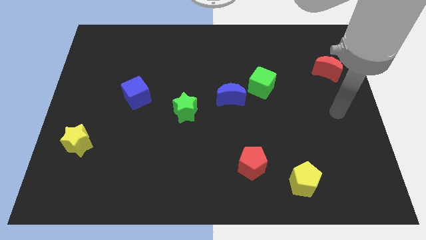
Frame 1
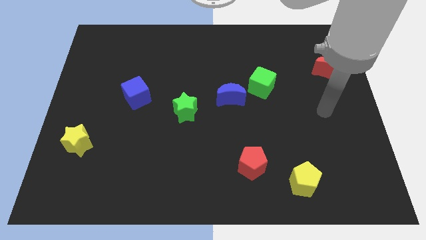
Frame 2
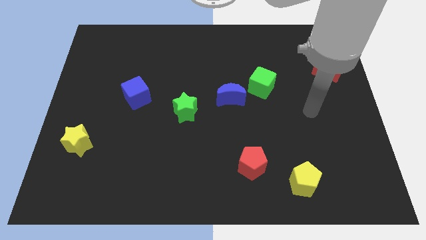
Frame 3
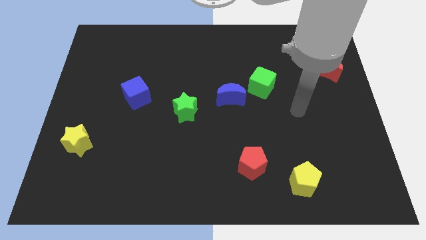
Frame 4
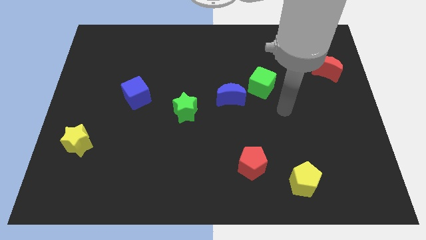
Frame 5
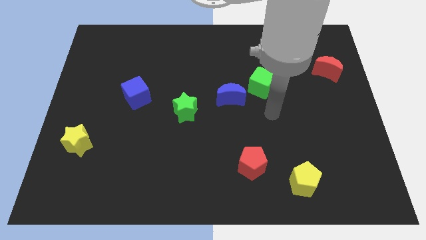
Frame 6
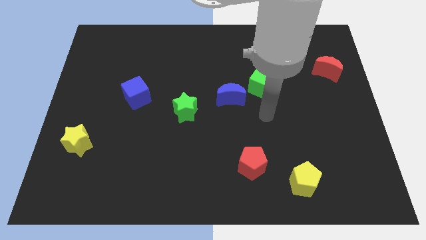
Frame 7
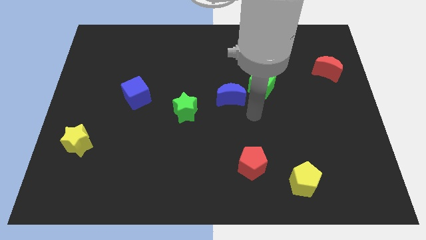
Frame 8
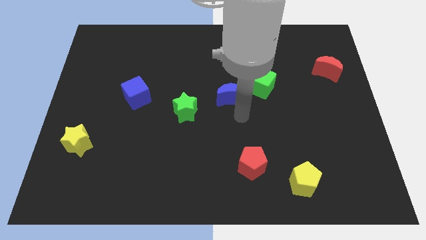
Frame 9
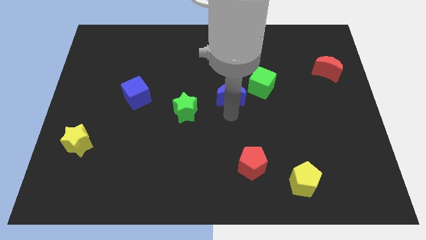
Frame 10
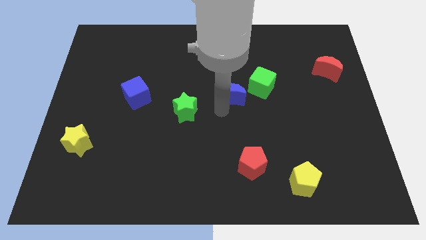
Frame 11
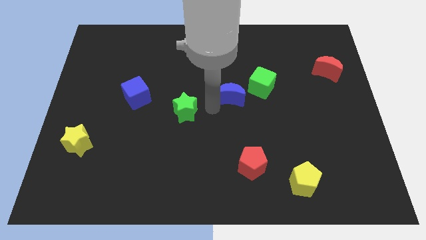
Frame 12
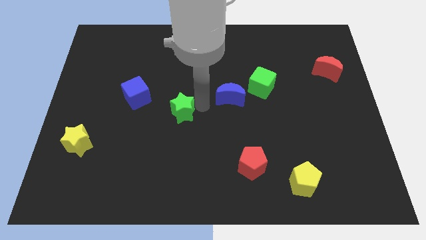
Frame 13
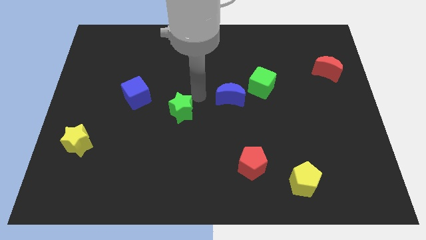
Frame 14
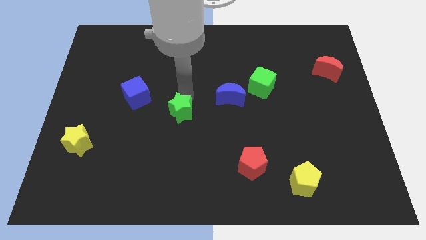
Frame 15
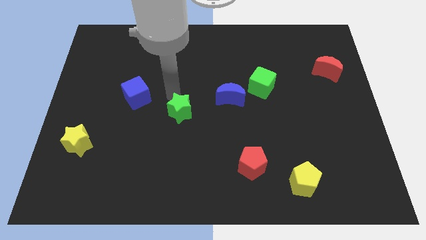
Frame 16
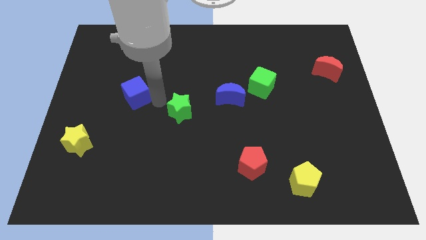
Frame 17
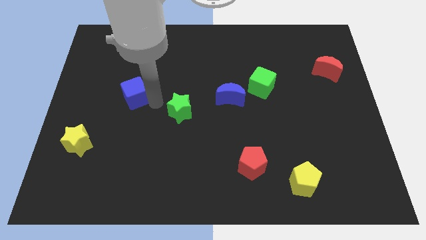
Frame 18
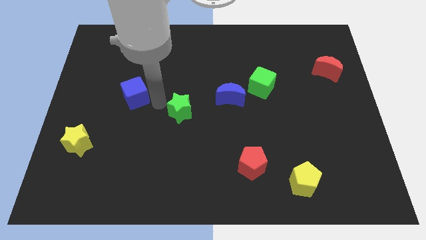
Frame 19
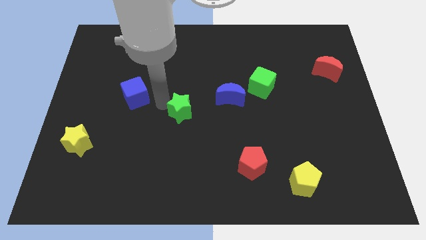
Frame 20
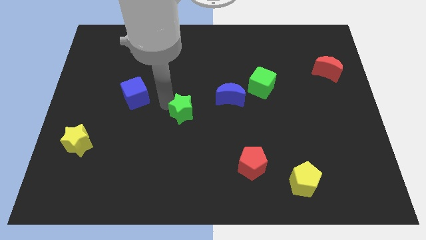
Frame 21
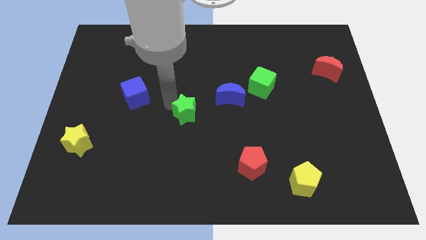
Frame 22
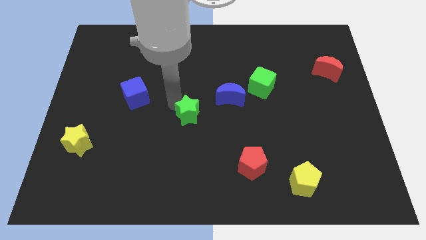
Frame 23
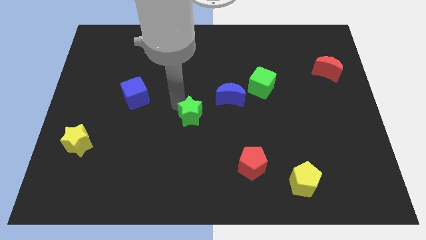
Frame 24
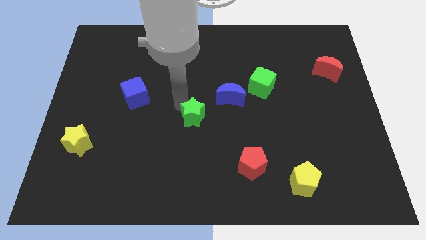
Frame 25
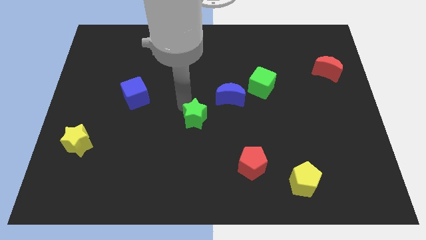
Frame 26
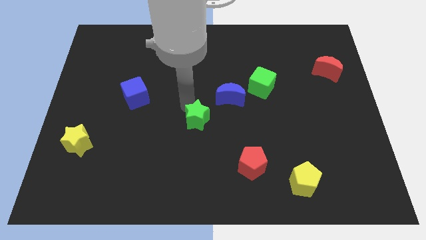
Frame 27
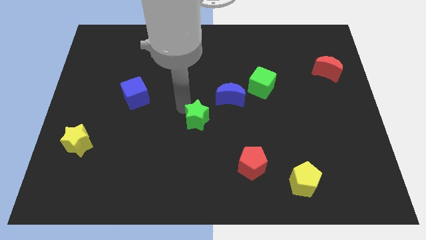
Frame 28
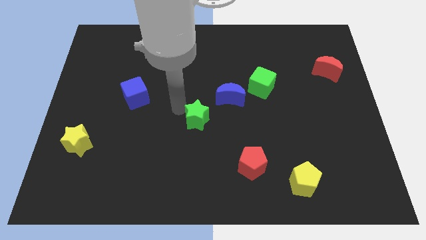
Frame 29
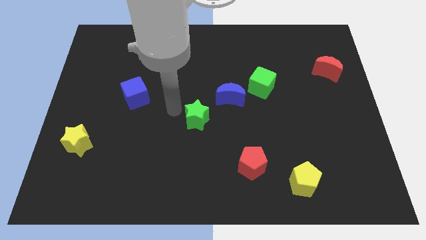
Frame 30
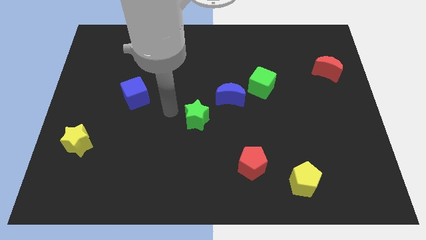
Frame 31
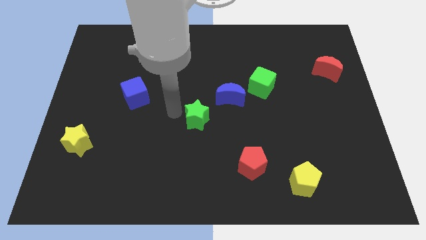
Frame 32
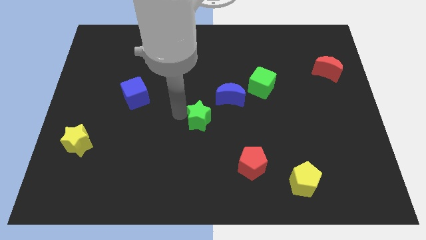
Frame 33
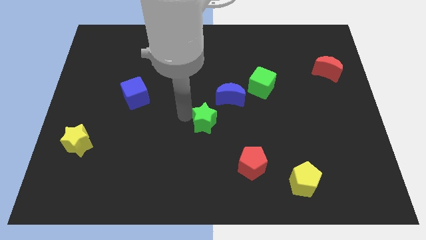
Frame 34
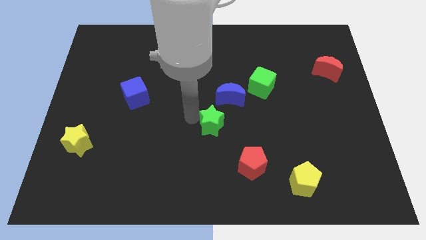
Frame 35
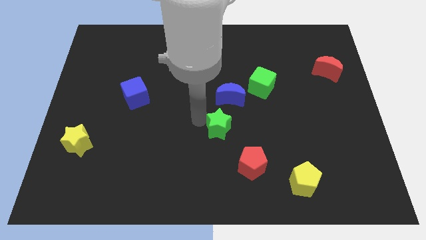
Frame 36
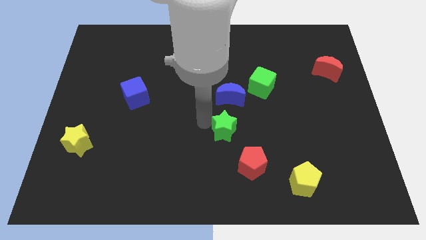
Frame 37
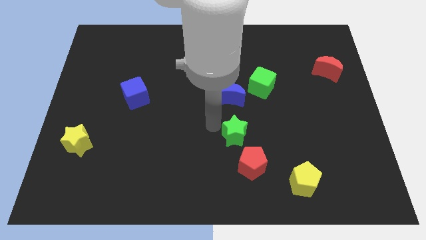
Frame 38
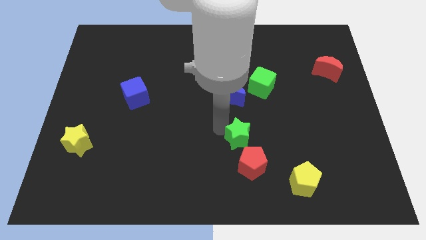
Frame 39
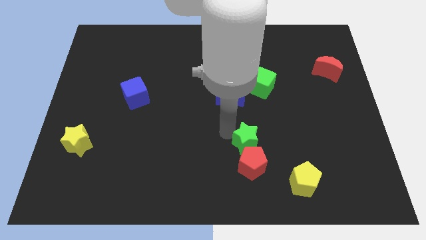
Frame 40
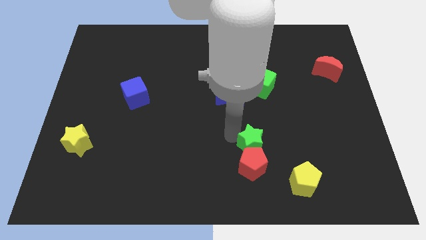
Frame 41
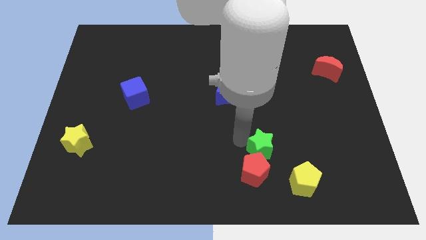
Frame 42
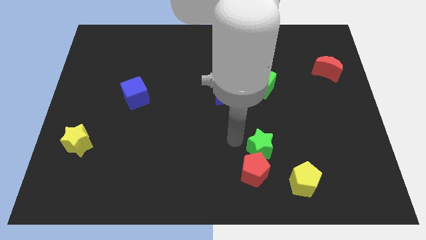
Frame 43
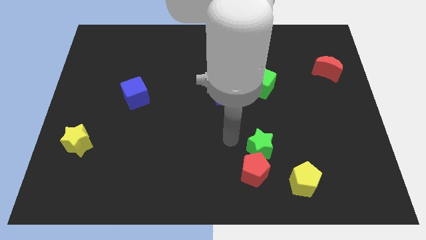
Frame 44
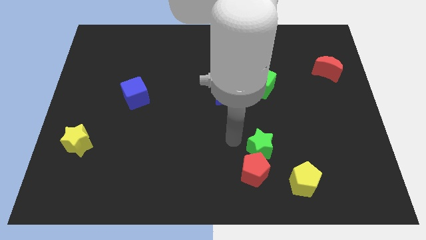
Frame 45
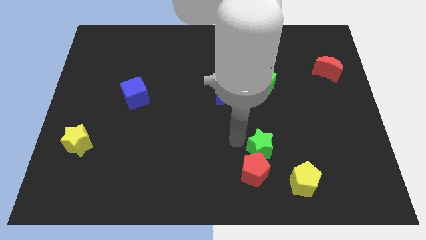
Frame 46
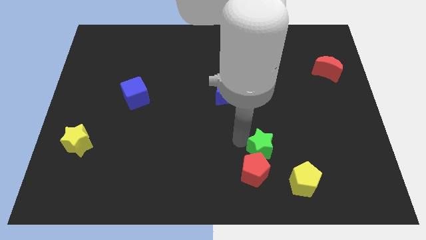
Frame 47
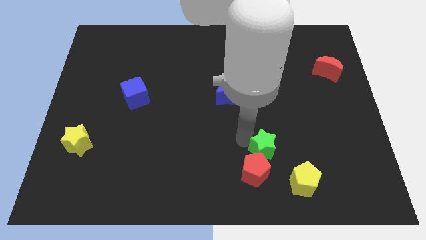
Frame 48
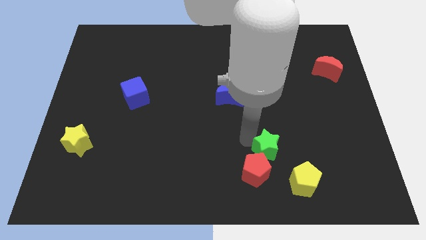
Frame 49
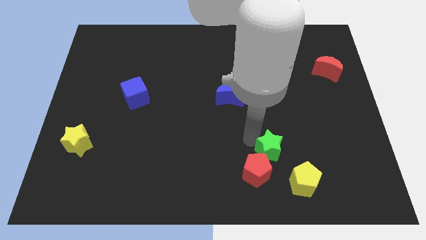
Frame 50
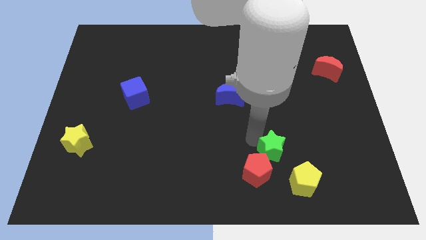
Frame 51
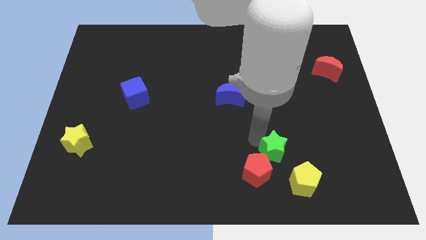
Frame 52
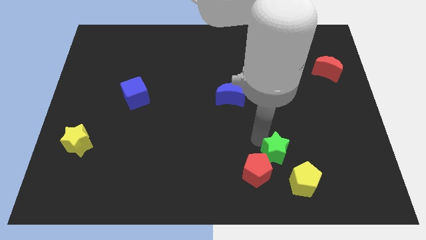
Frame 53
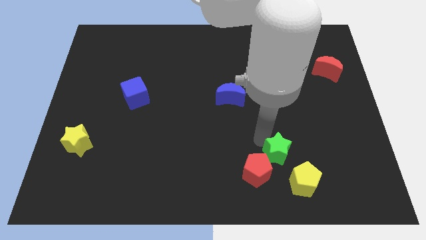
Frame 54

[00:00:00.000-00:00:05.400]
put the green star to the right of the red pentagon

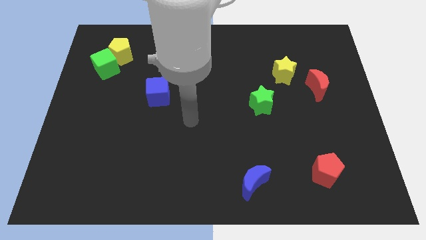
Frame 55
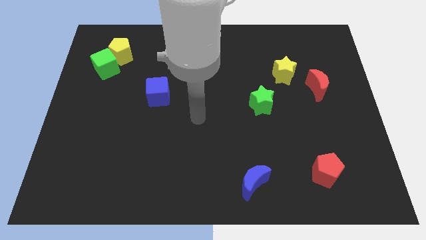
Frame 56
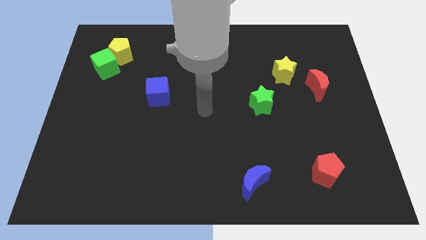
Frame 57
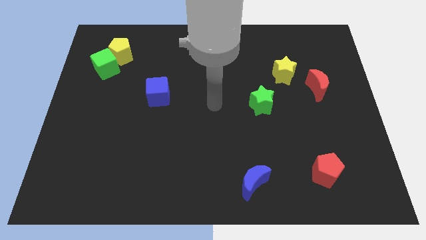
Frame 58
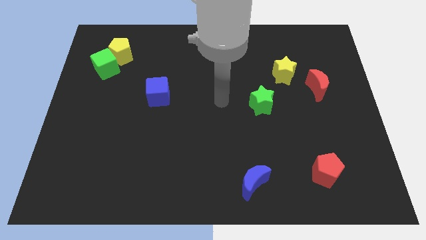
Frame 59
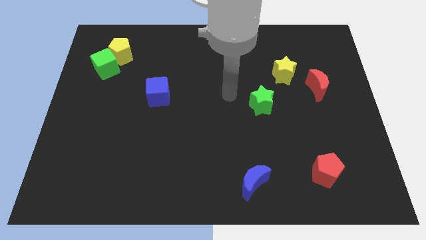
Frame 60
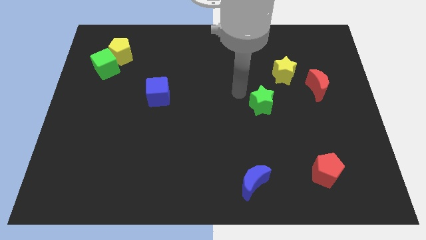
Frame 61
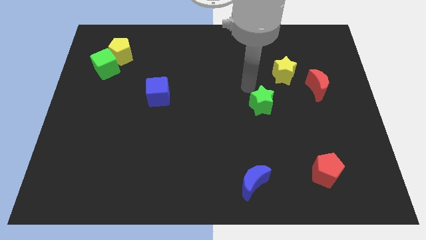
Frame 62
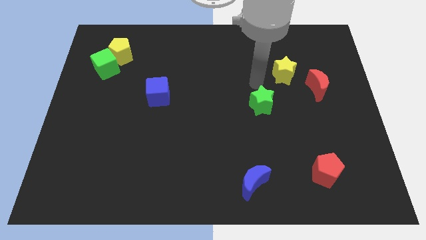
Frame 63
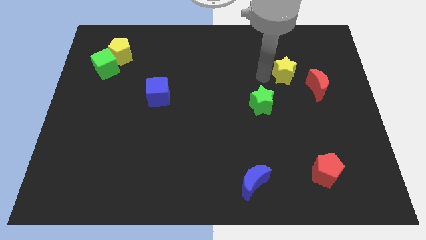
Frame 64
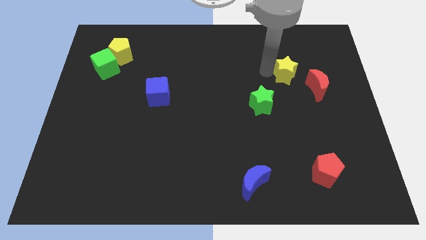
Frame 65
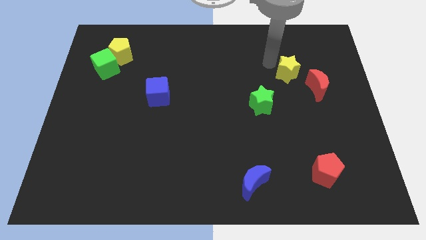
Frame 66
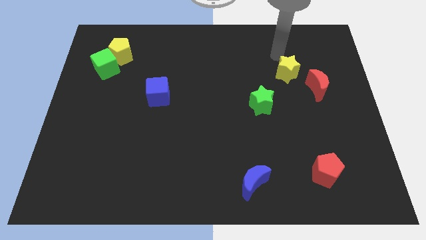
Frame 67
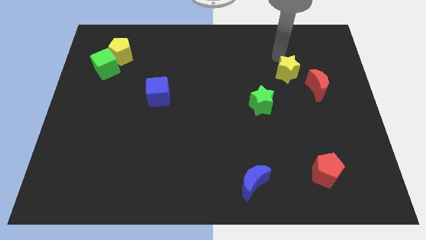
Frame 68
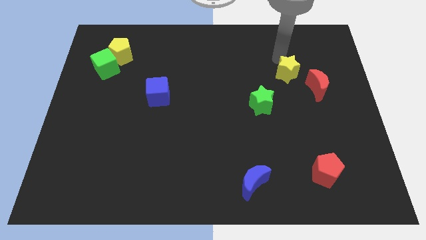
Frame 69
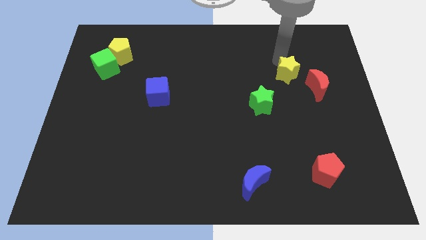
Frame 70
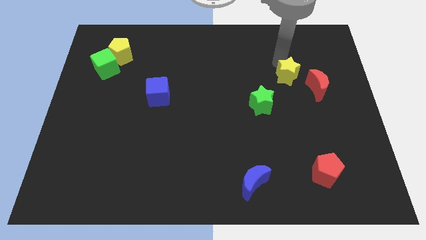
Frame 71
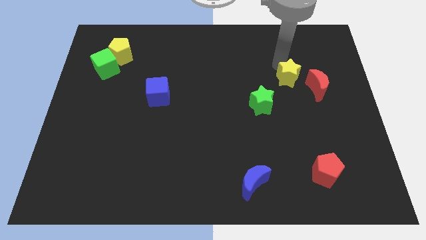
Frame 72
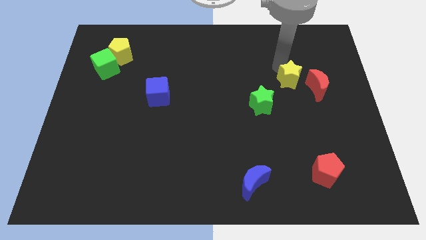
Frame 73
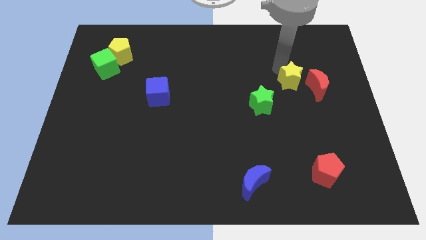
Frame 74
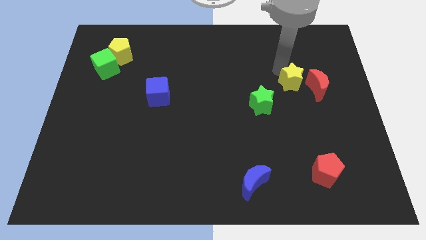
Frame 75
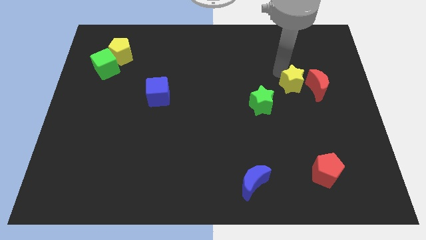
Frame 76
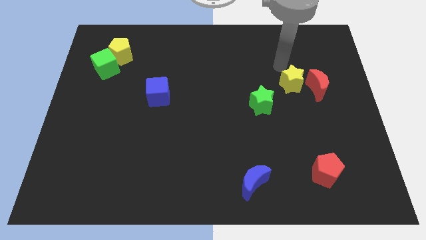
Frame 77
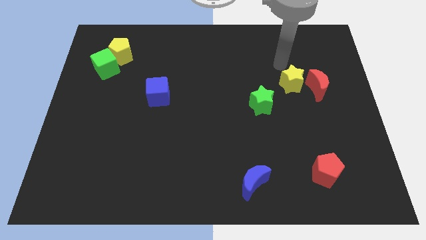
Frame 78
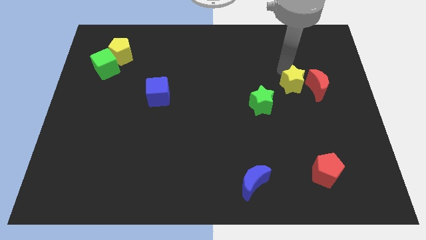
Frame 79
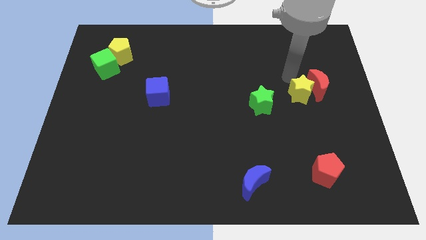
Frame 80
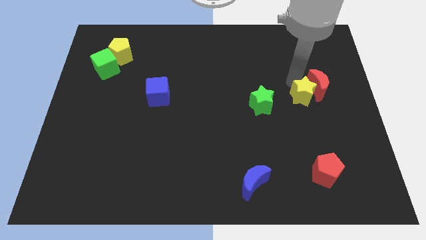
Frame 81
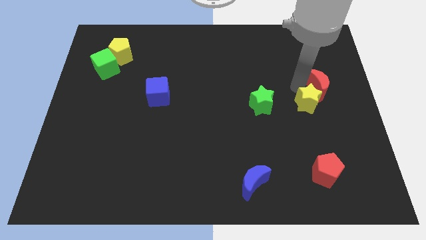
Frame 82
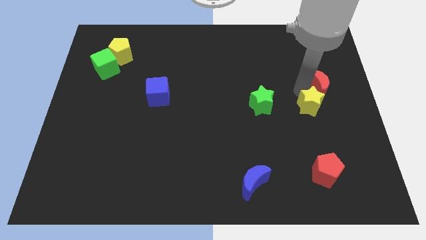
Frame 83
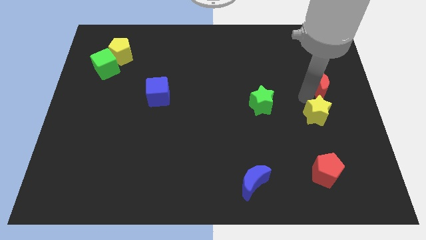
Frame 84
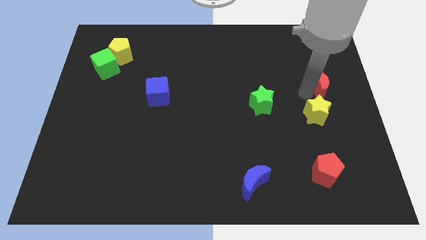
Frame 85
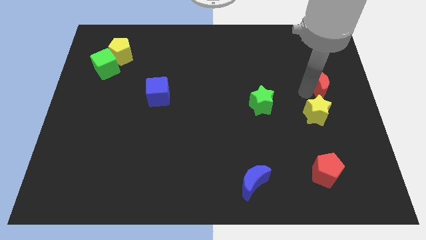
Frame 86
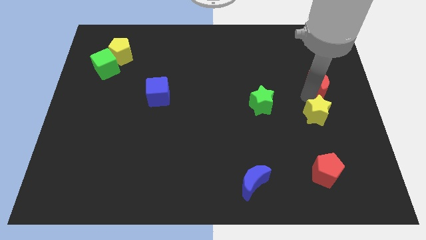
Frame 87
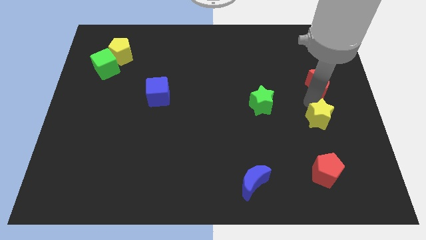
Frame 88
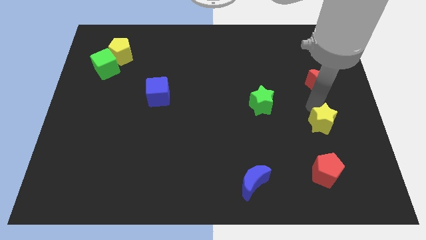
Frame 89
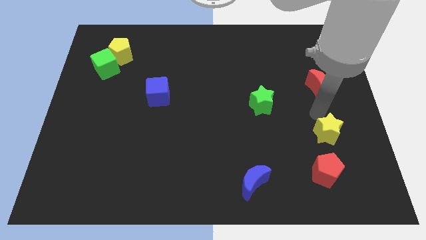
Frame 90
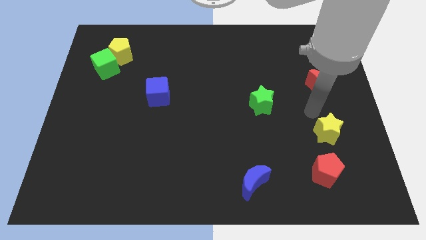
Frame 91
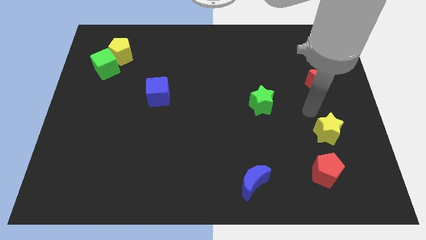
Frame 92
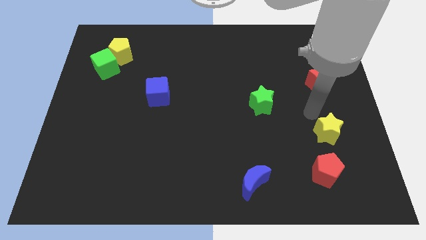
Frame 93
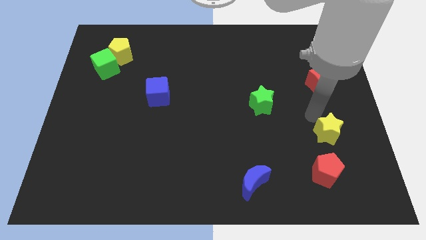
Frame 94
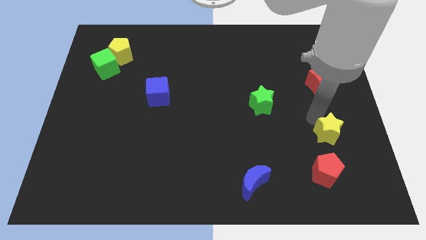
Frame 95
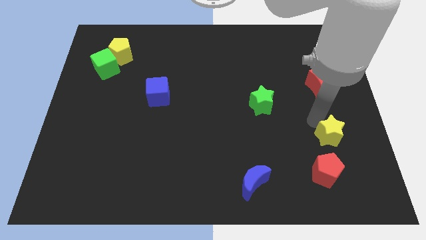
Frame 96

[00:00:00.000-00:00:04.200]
put the yellow star to the top right side of the red pentagon
